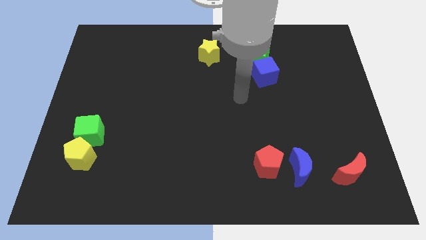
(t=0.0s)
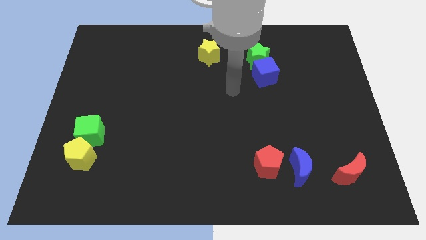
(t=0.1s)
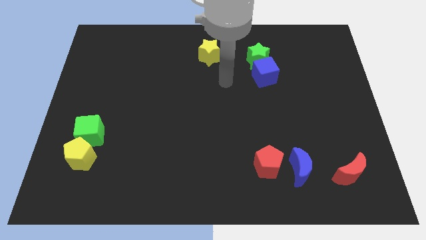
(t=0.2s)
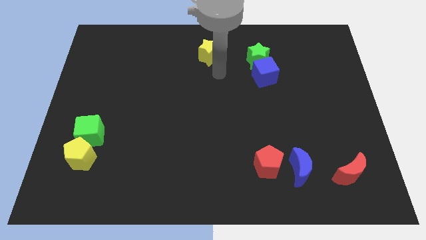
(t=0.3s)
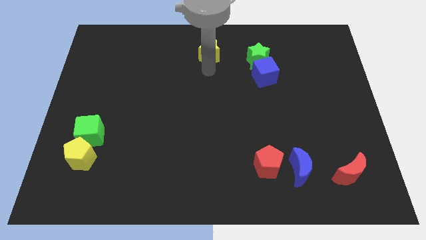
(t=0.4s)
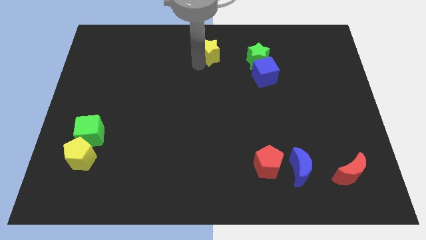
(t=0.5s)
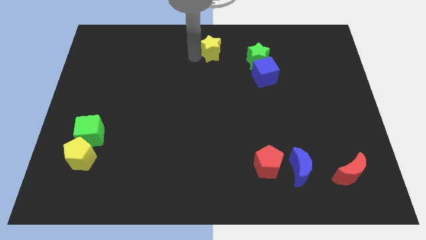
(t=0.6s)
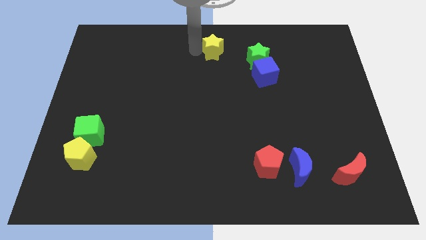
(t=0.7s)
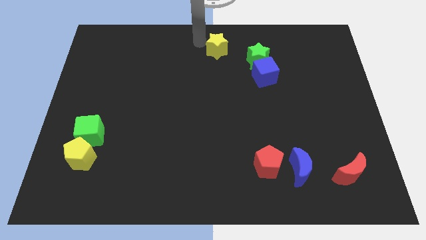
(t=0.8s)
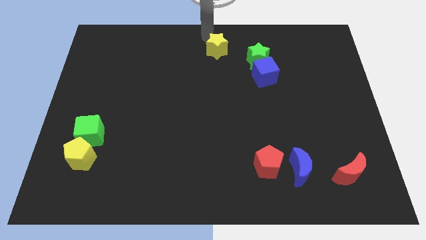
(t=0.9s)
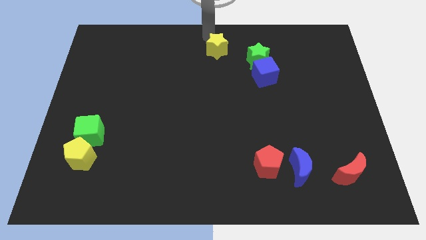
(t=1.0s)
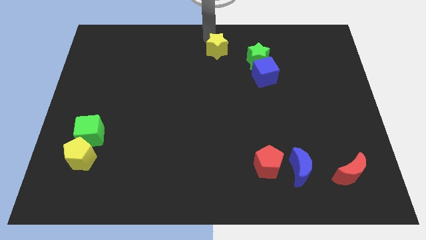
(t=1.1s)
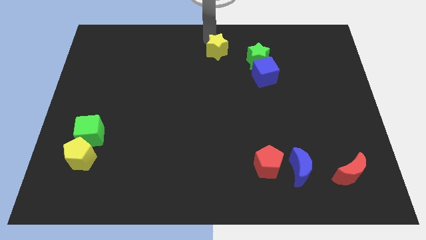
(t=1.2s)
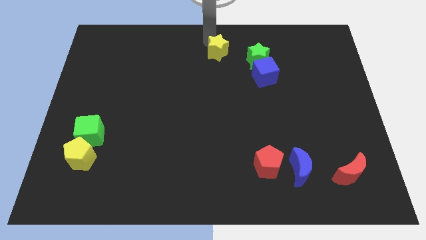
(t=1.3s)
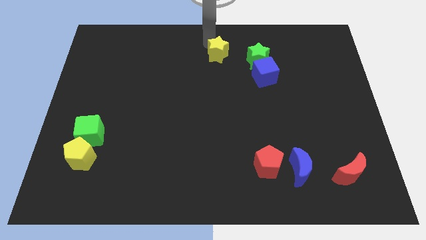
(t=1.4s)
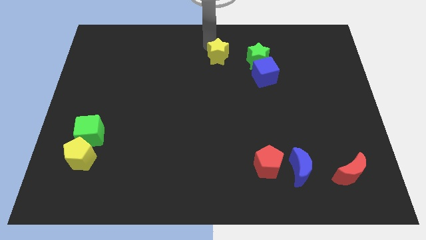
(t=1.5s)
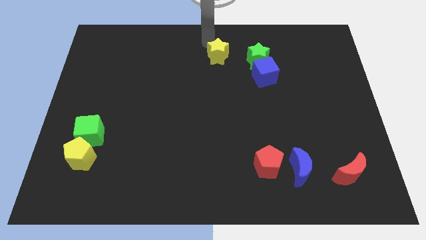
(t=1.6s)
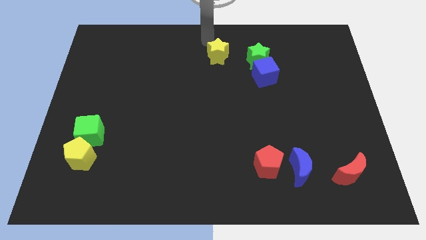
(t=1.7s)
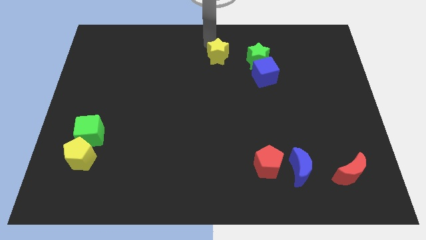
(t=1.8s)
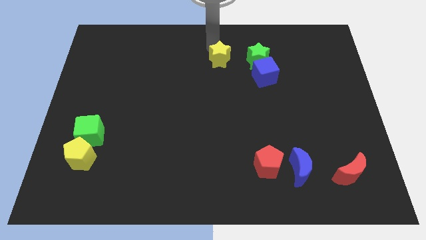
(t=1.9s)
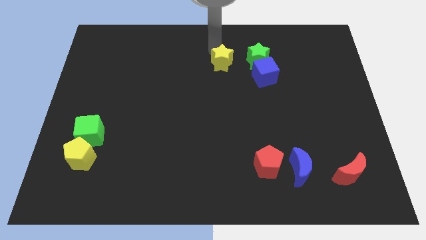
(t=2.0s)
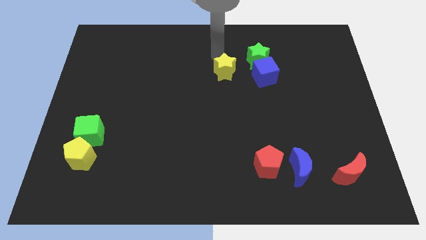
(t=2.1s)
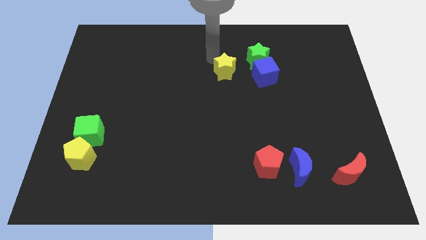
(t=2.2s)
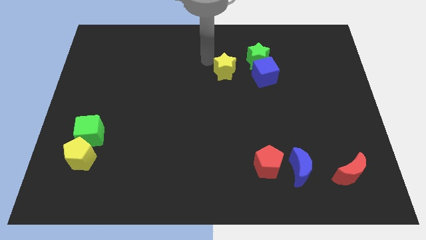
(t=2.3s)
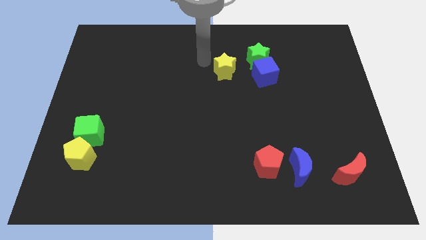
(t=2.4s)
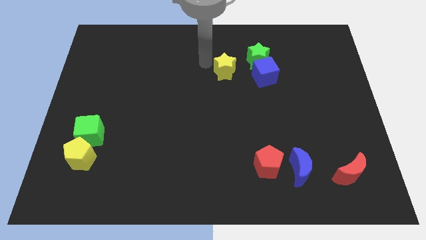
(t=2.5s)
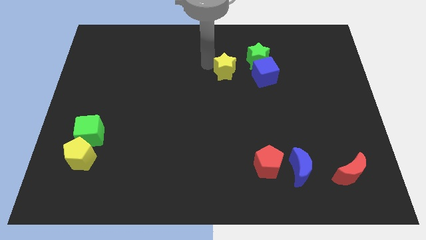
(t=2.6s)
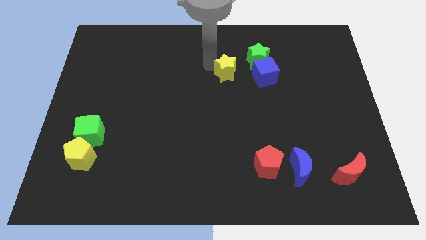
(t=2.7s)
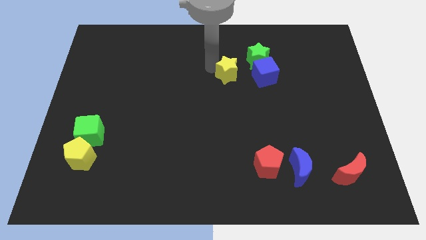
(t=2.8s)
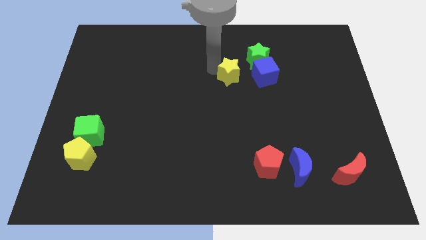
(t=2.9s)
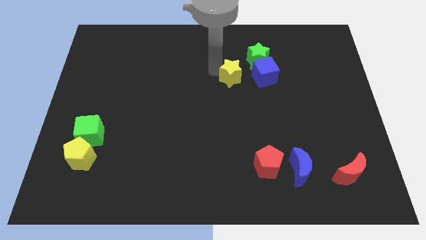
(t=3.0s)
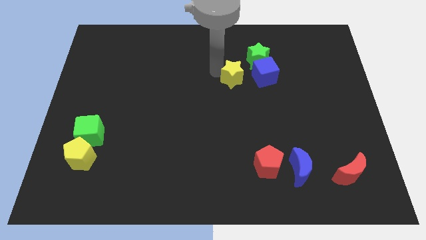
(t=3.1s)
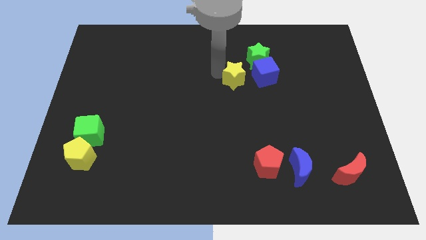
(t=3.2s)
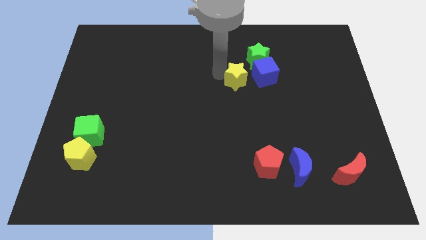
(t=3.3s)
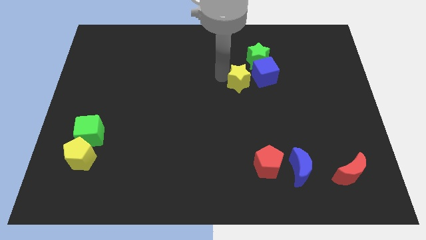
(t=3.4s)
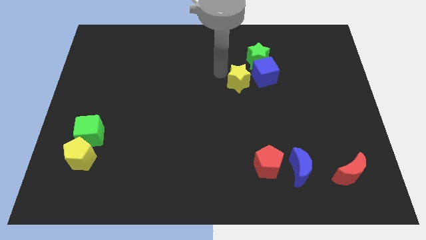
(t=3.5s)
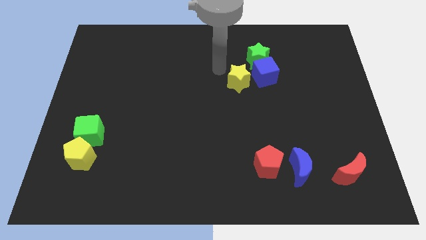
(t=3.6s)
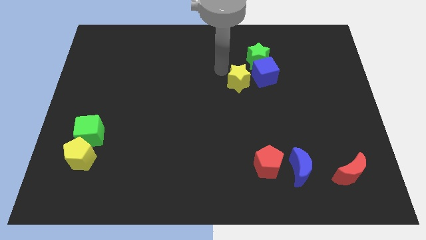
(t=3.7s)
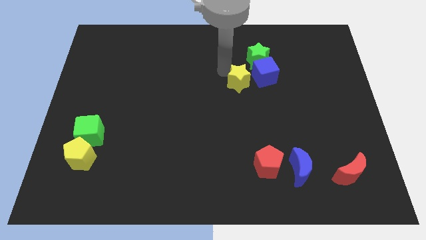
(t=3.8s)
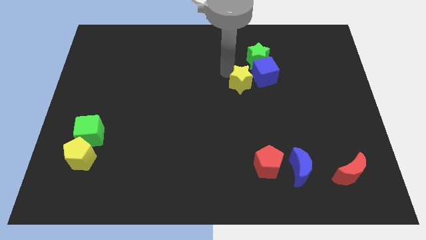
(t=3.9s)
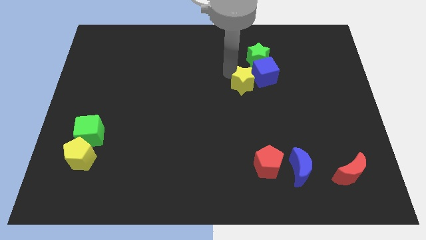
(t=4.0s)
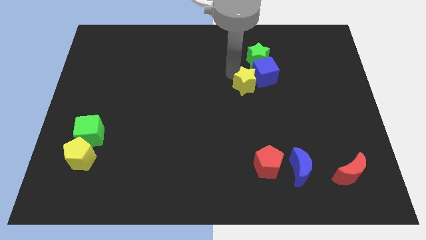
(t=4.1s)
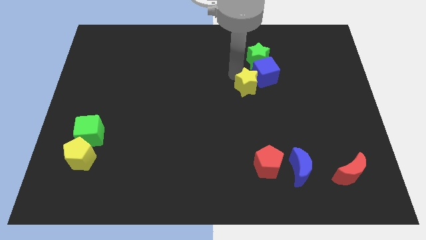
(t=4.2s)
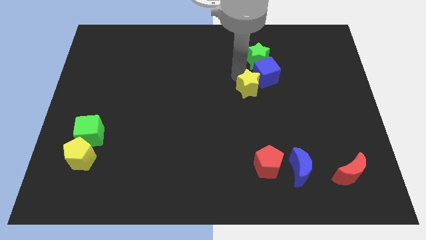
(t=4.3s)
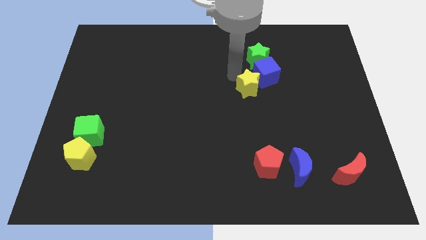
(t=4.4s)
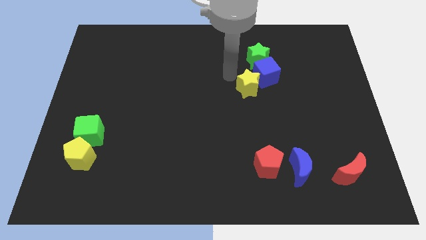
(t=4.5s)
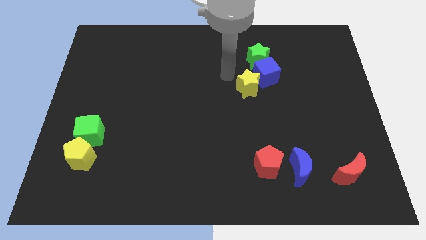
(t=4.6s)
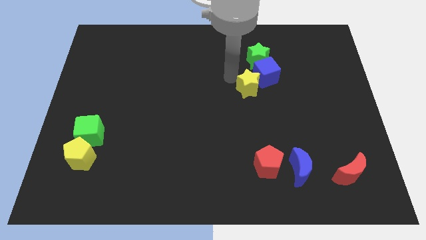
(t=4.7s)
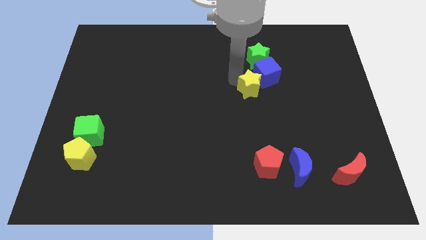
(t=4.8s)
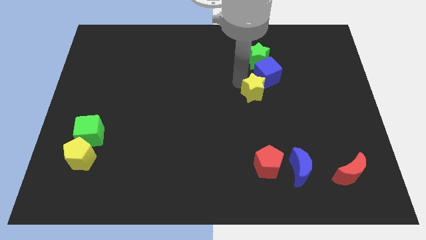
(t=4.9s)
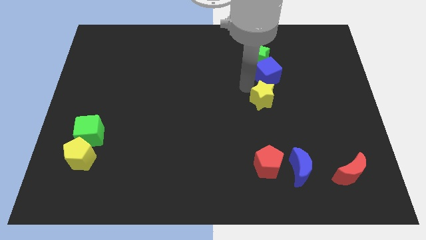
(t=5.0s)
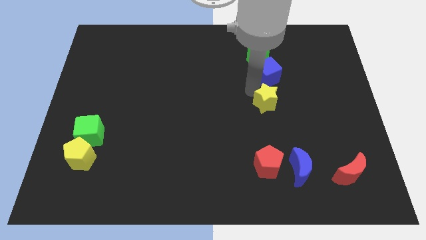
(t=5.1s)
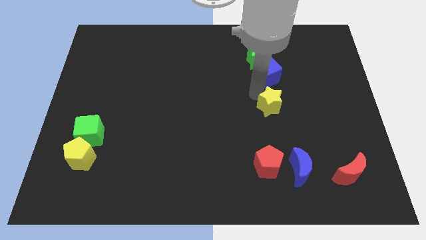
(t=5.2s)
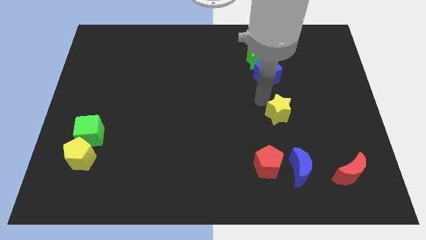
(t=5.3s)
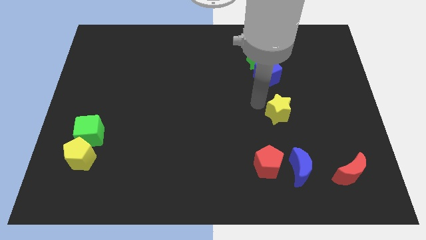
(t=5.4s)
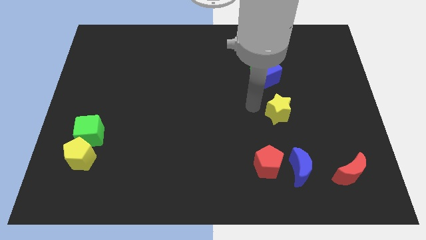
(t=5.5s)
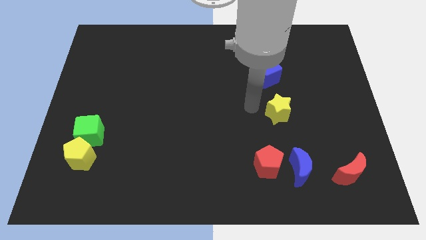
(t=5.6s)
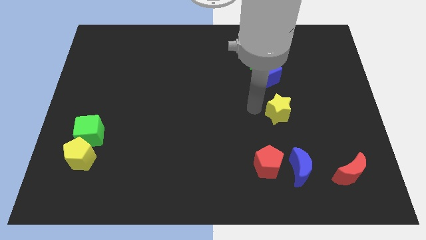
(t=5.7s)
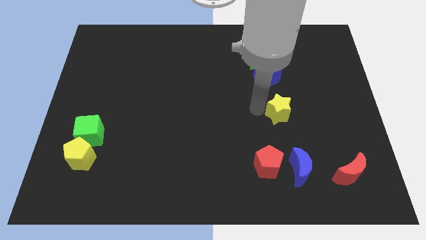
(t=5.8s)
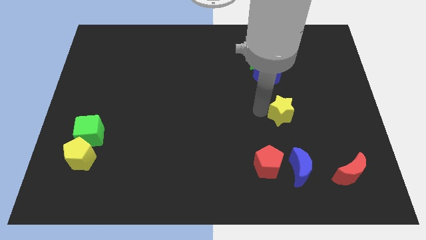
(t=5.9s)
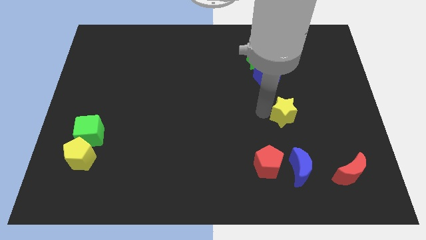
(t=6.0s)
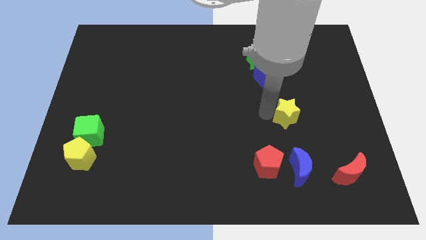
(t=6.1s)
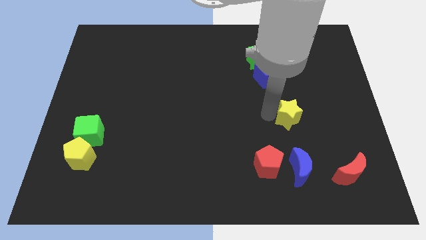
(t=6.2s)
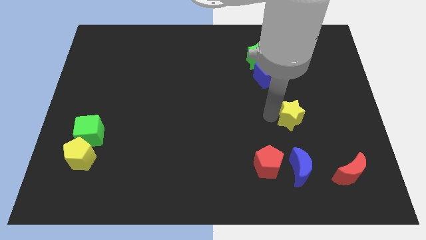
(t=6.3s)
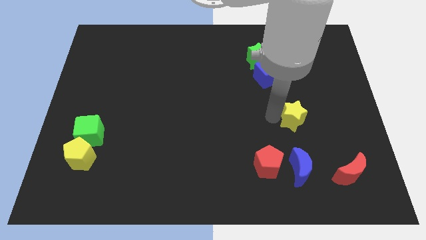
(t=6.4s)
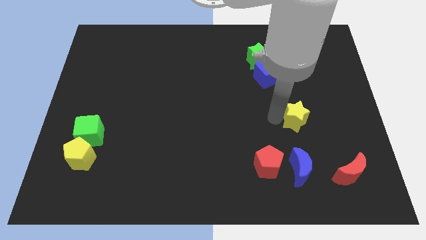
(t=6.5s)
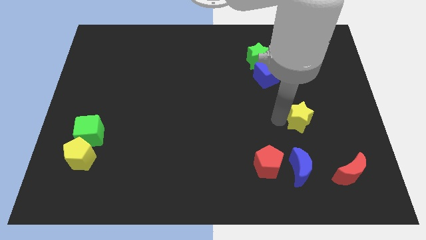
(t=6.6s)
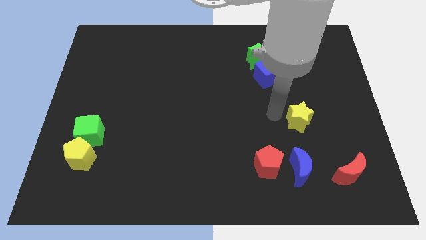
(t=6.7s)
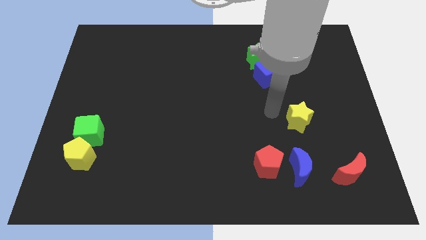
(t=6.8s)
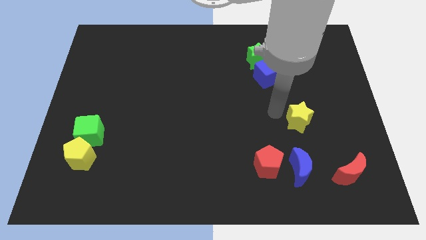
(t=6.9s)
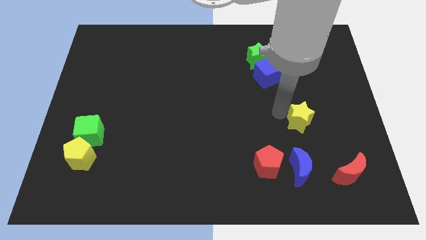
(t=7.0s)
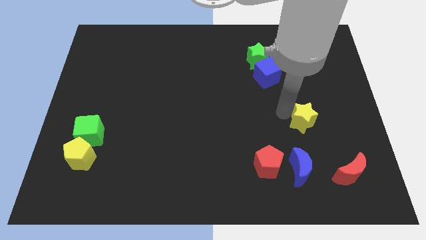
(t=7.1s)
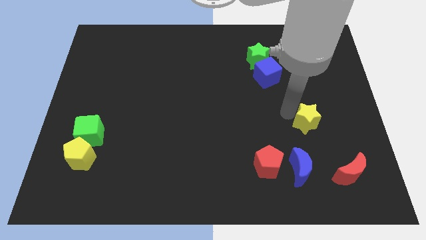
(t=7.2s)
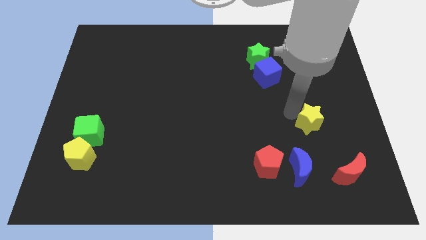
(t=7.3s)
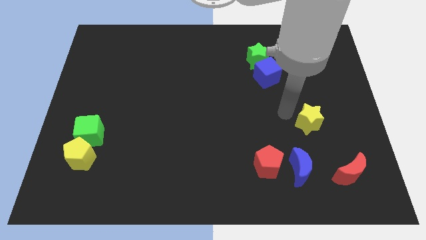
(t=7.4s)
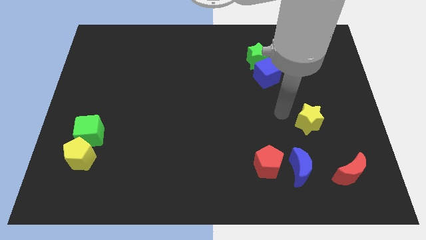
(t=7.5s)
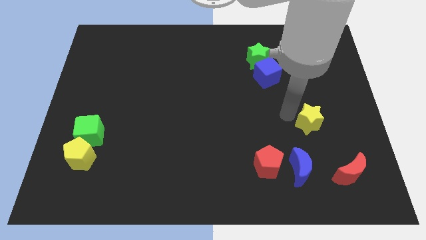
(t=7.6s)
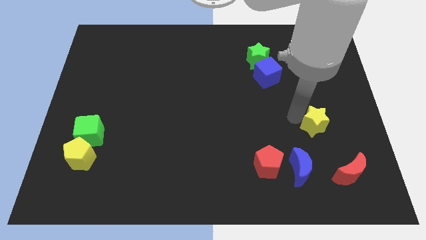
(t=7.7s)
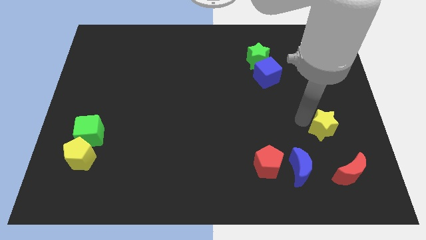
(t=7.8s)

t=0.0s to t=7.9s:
move the yellow star to the top side of the red moon
